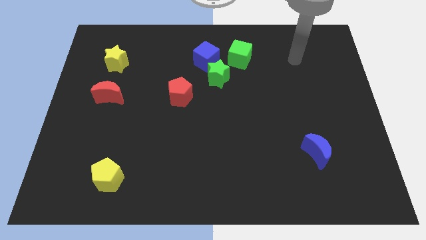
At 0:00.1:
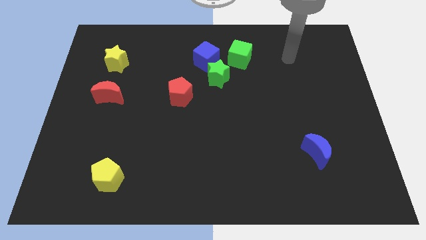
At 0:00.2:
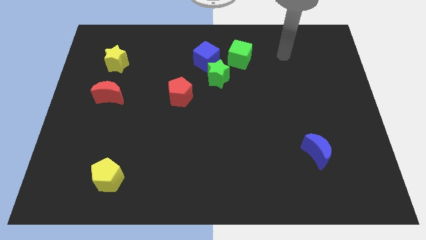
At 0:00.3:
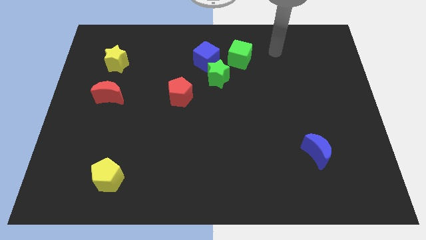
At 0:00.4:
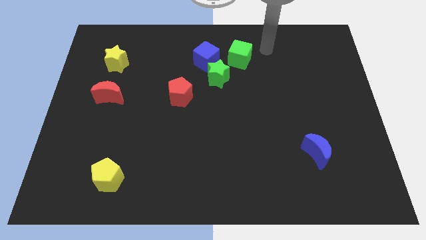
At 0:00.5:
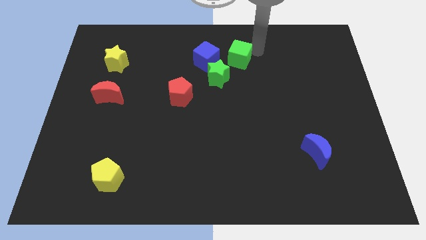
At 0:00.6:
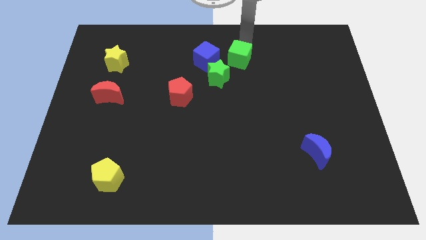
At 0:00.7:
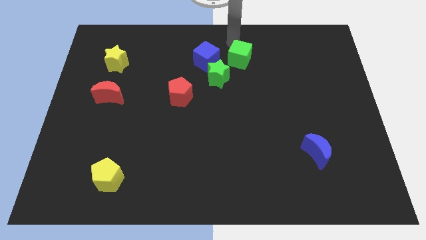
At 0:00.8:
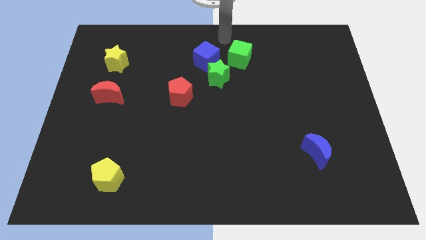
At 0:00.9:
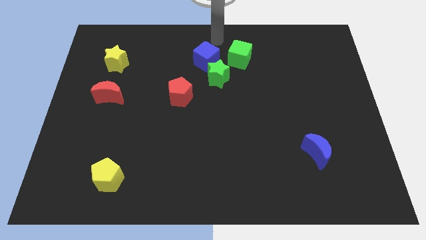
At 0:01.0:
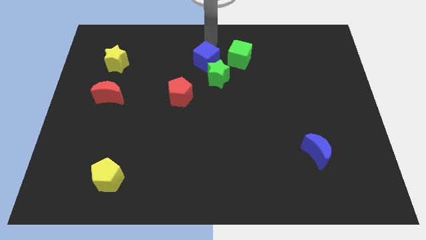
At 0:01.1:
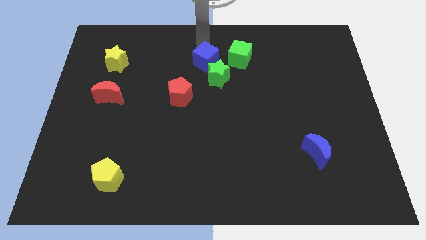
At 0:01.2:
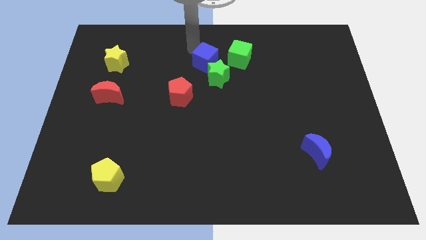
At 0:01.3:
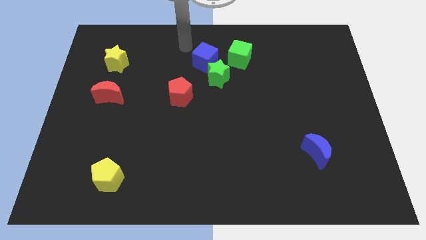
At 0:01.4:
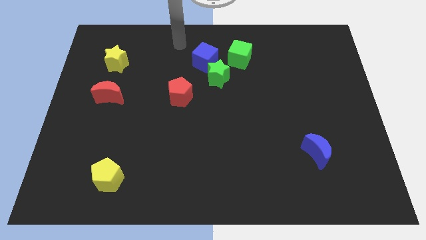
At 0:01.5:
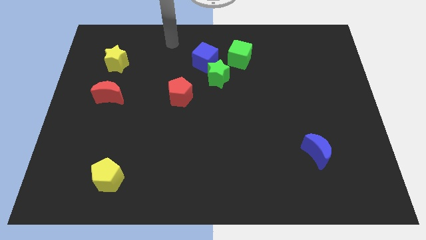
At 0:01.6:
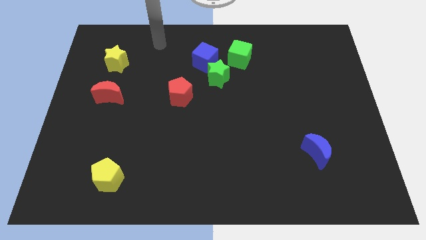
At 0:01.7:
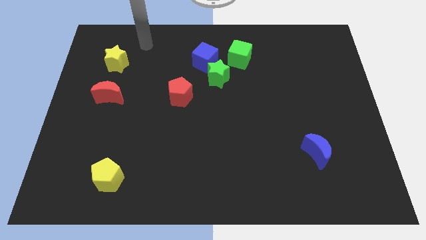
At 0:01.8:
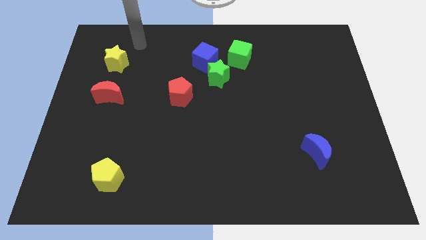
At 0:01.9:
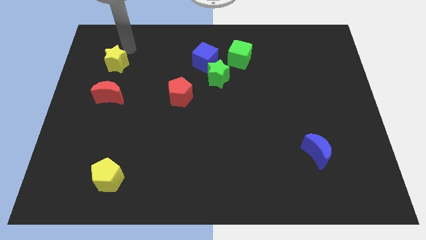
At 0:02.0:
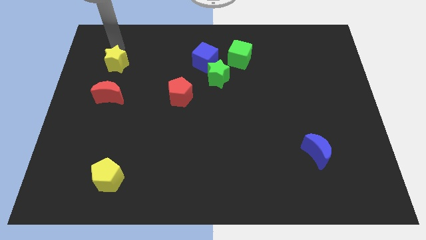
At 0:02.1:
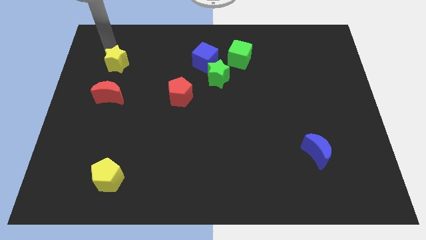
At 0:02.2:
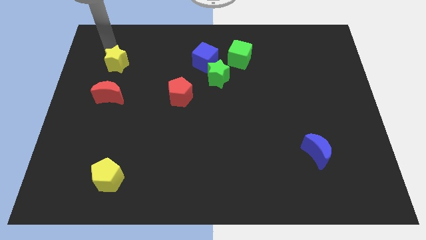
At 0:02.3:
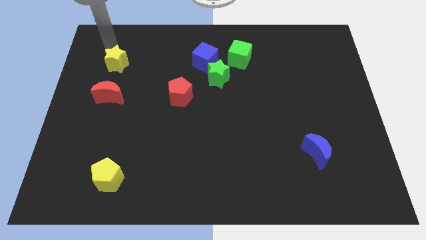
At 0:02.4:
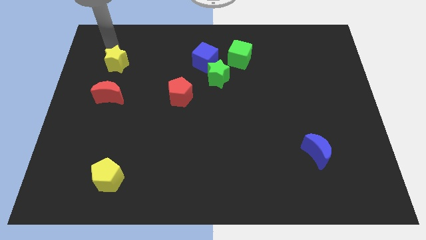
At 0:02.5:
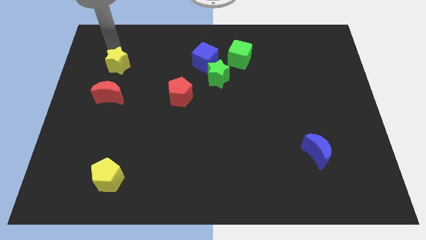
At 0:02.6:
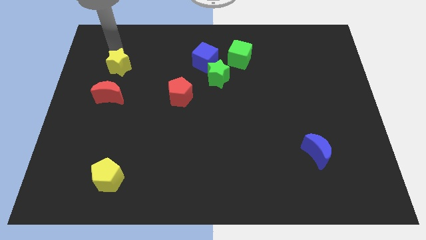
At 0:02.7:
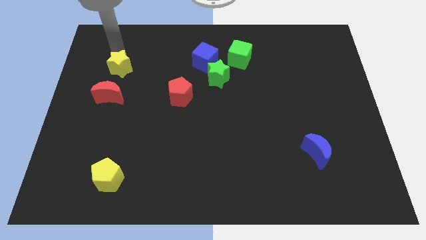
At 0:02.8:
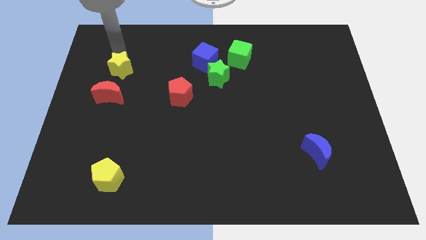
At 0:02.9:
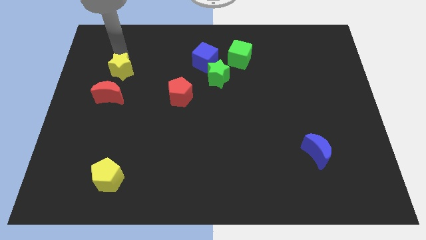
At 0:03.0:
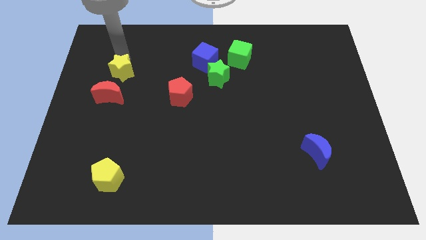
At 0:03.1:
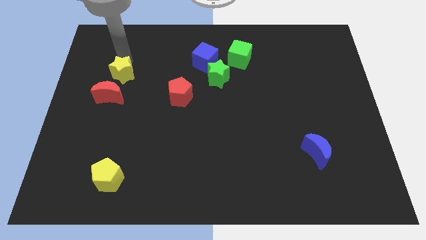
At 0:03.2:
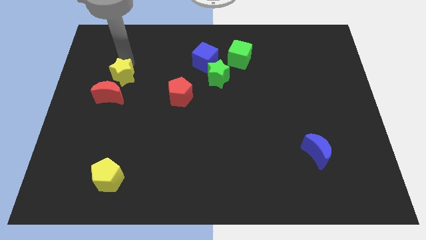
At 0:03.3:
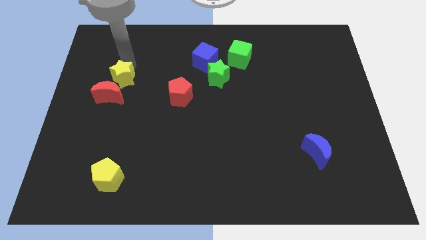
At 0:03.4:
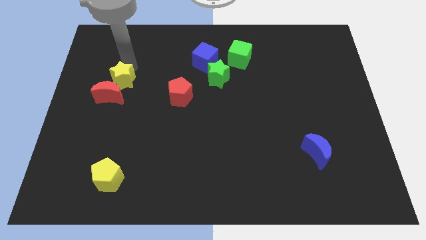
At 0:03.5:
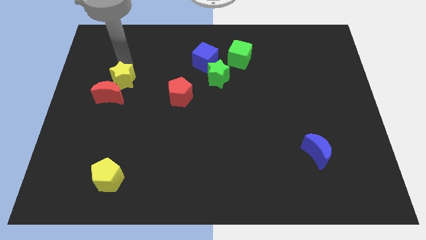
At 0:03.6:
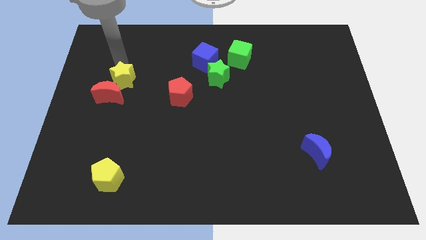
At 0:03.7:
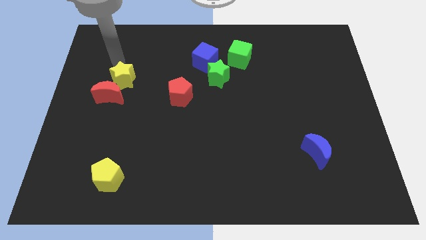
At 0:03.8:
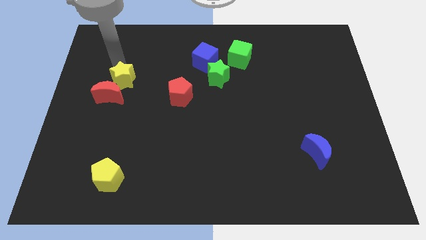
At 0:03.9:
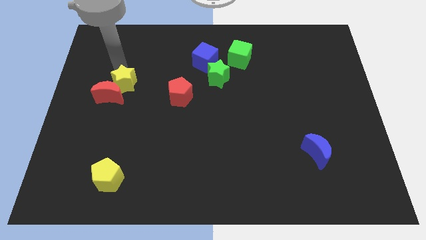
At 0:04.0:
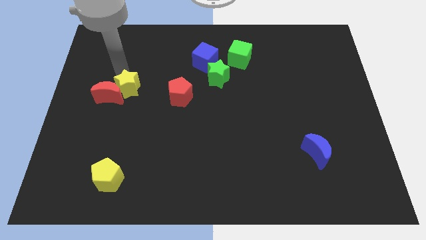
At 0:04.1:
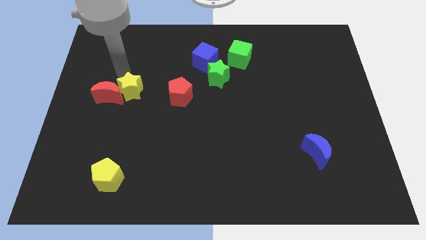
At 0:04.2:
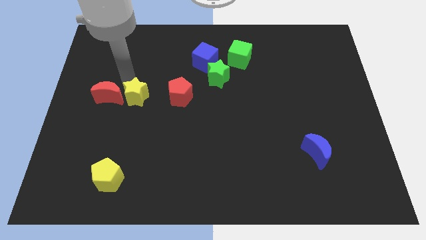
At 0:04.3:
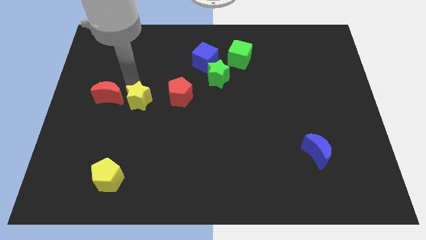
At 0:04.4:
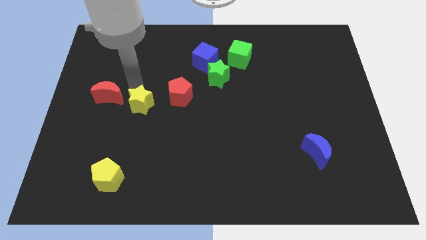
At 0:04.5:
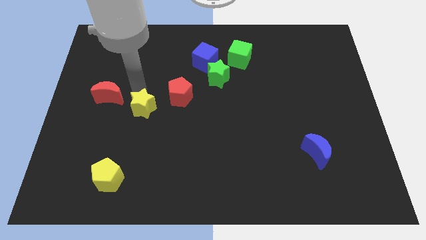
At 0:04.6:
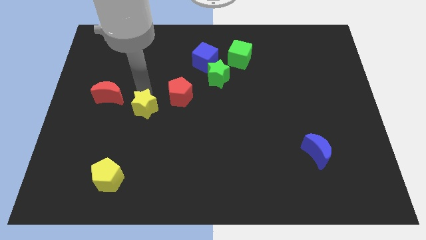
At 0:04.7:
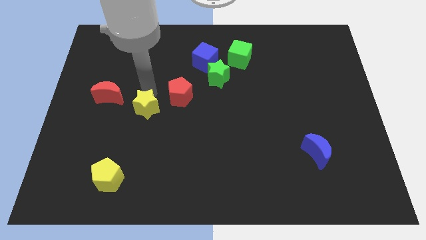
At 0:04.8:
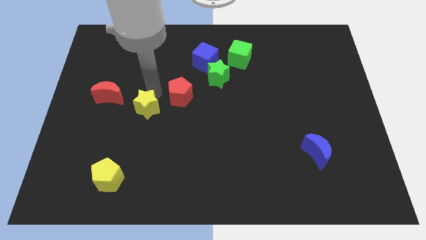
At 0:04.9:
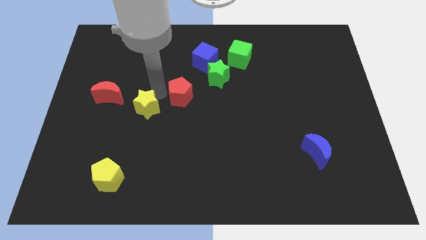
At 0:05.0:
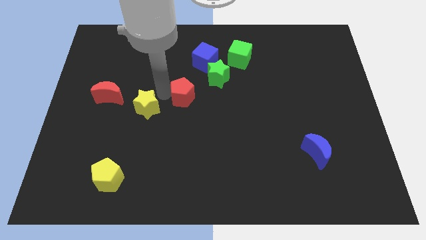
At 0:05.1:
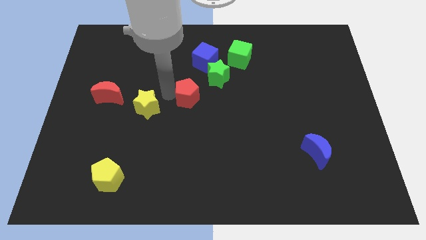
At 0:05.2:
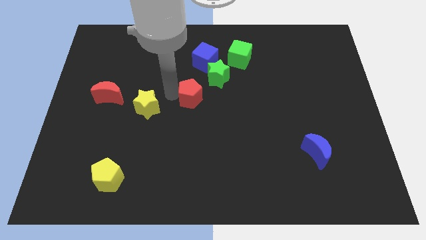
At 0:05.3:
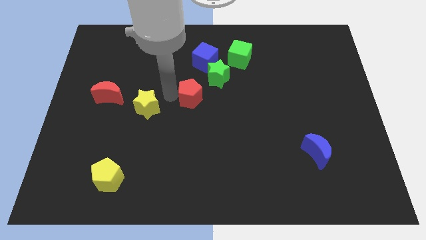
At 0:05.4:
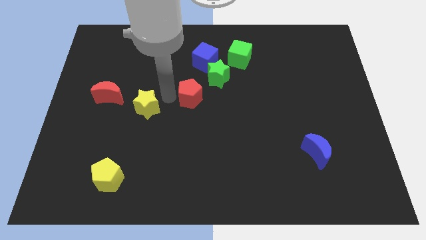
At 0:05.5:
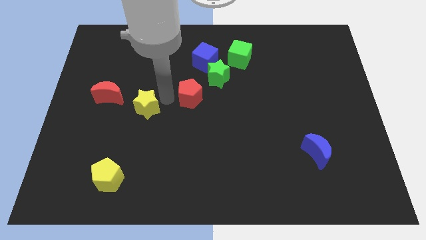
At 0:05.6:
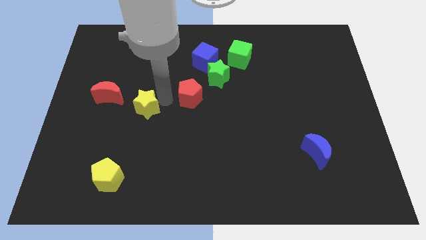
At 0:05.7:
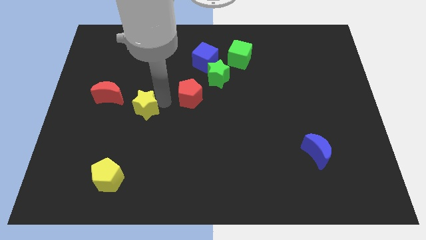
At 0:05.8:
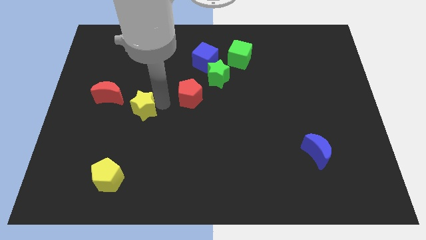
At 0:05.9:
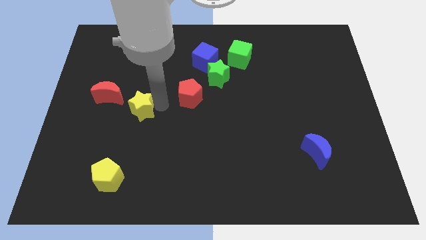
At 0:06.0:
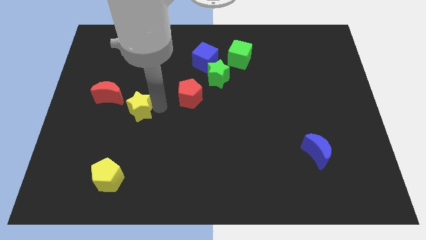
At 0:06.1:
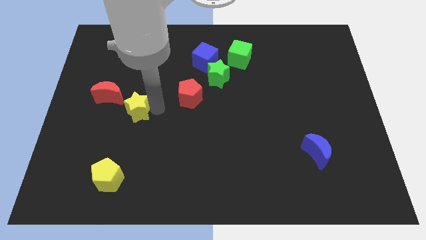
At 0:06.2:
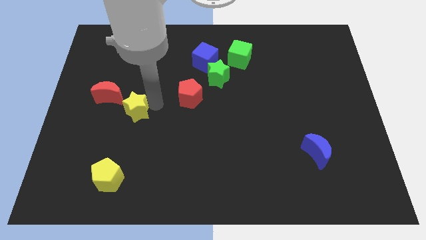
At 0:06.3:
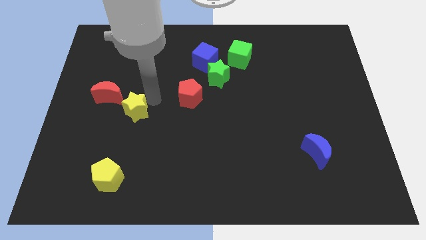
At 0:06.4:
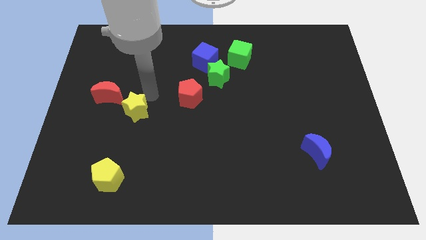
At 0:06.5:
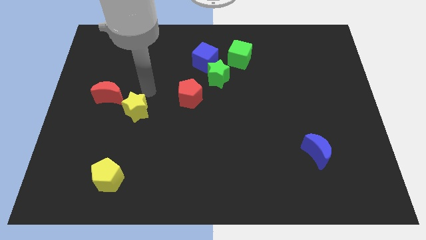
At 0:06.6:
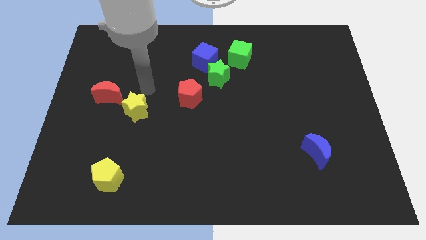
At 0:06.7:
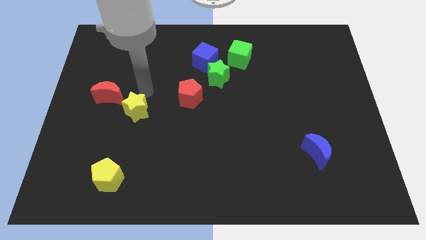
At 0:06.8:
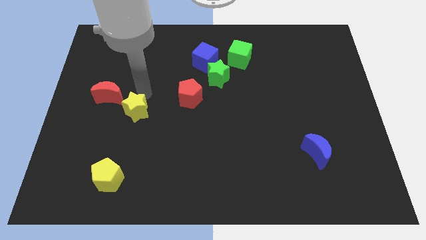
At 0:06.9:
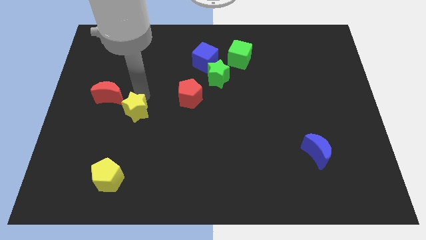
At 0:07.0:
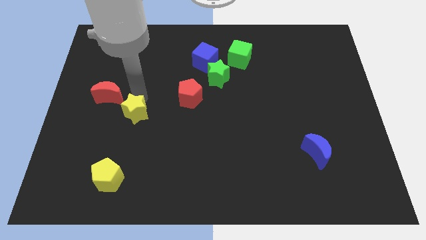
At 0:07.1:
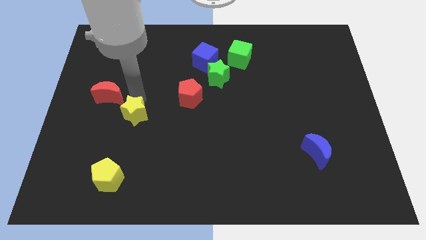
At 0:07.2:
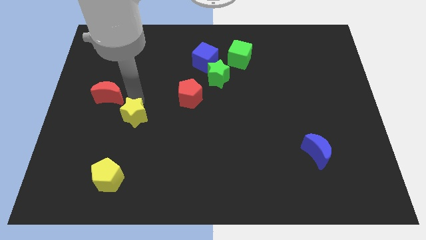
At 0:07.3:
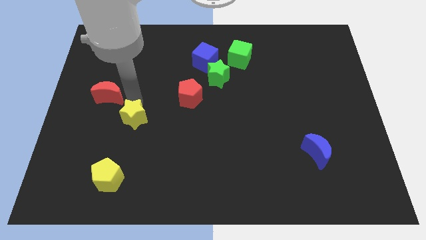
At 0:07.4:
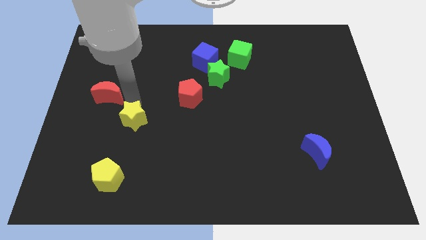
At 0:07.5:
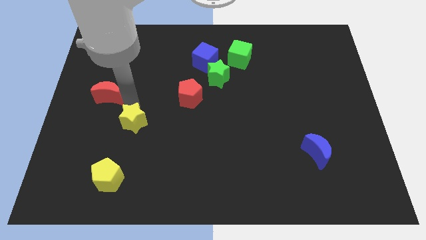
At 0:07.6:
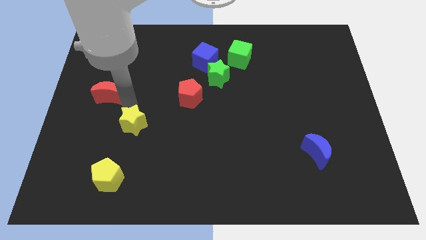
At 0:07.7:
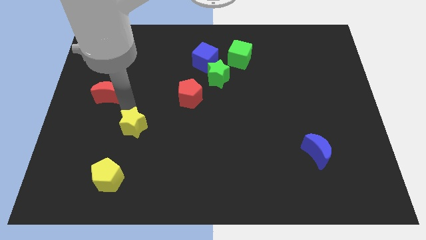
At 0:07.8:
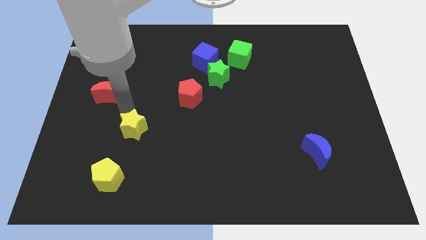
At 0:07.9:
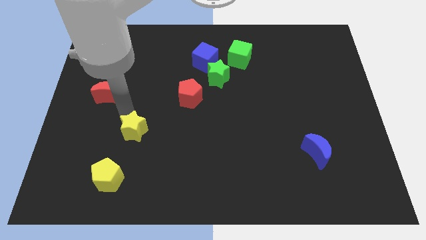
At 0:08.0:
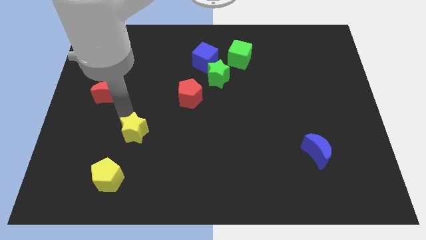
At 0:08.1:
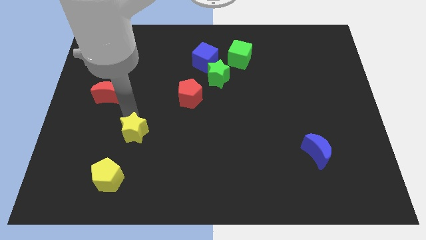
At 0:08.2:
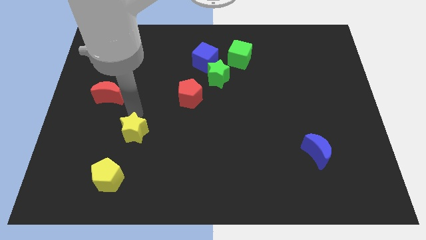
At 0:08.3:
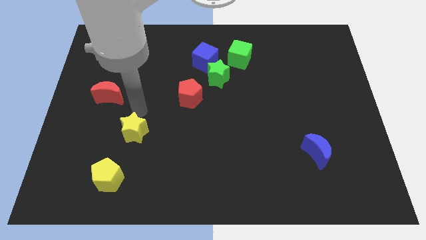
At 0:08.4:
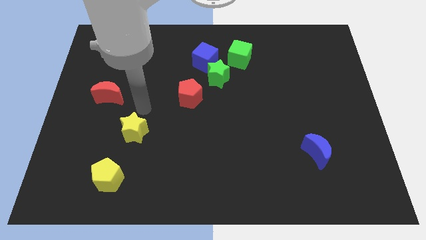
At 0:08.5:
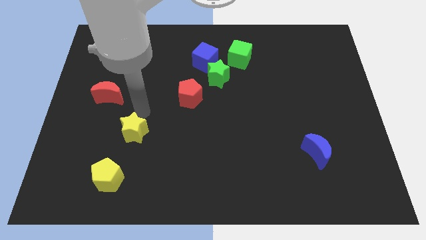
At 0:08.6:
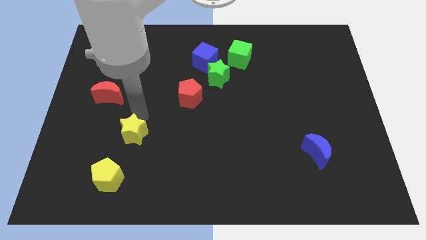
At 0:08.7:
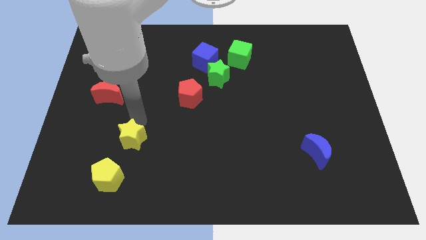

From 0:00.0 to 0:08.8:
put the yellow star diagonally up and to the right of the yellow pentagon
